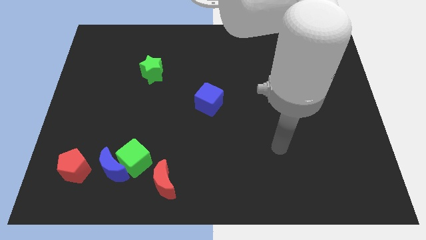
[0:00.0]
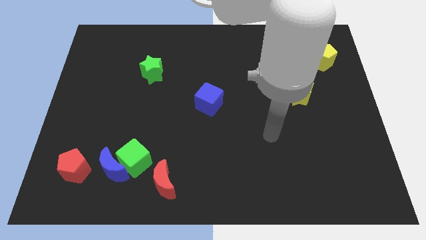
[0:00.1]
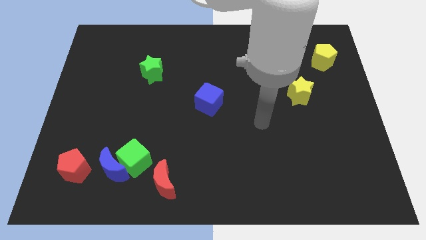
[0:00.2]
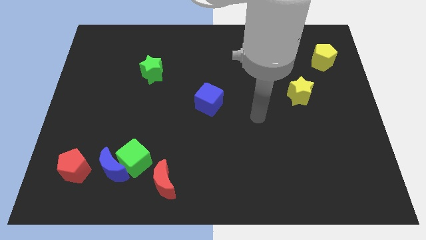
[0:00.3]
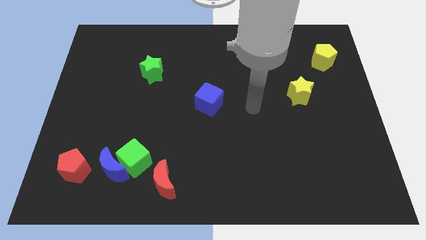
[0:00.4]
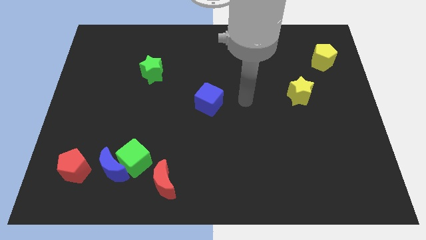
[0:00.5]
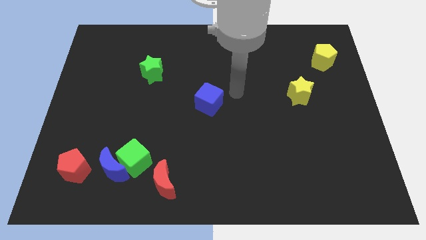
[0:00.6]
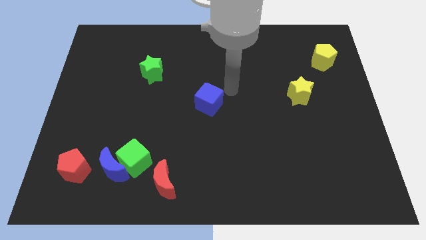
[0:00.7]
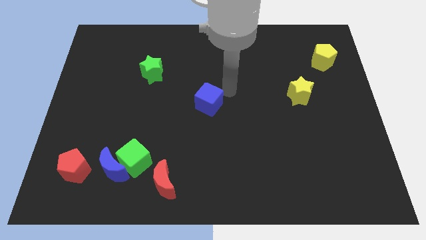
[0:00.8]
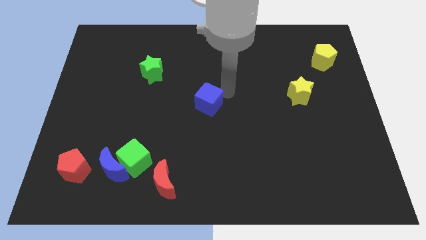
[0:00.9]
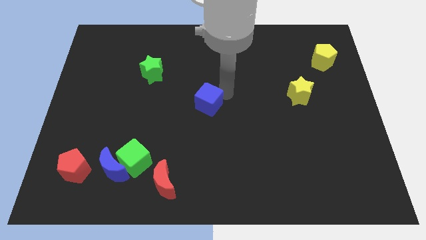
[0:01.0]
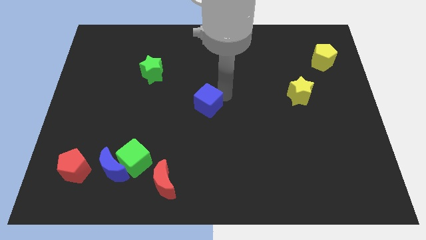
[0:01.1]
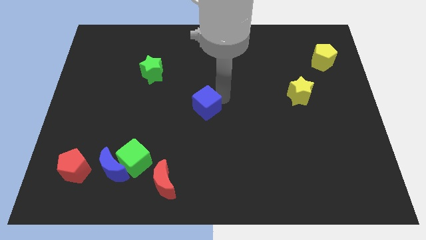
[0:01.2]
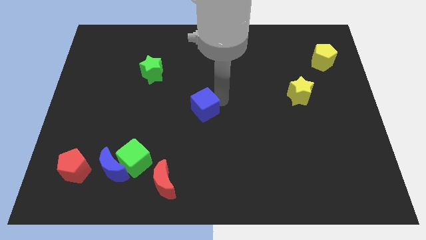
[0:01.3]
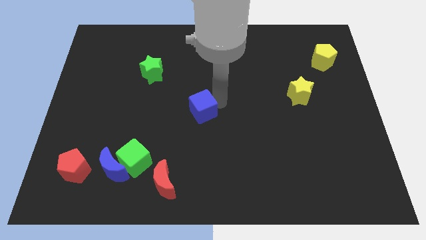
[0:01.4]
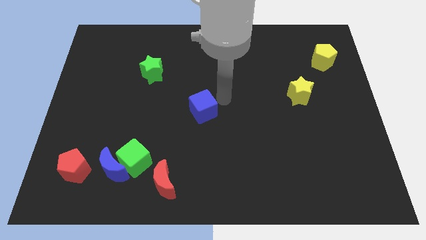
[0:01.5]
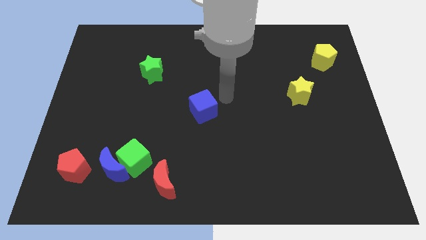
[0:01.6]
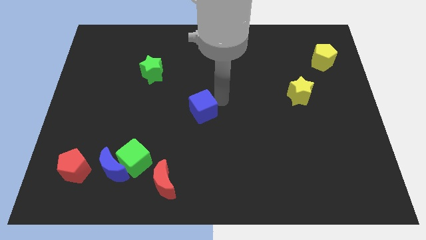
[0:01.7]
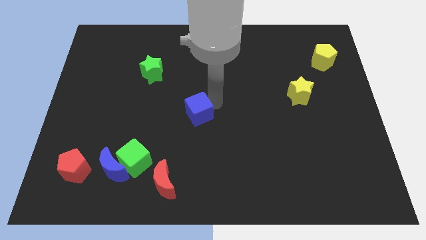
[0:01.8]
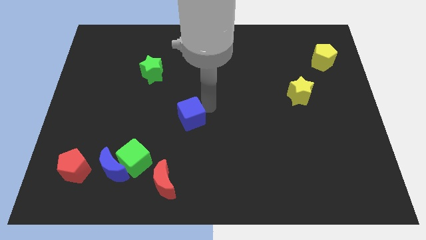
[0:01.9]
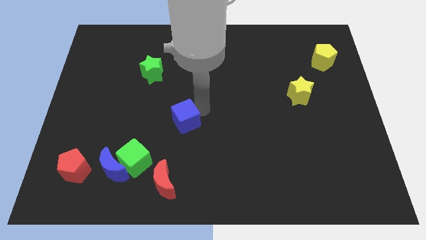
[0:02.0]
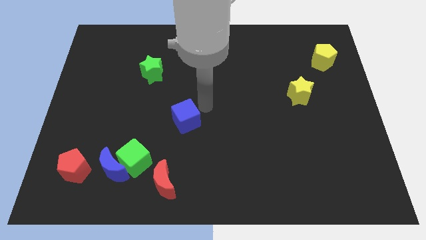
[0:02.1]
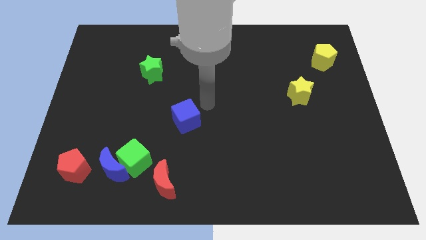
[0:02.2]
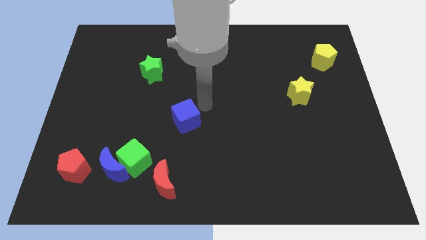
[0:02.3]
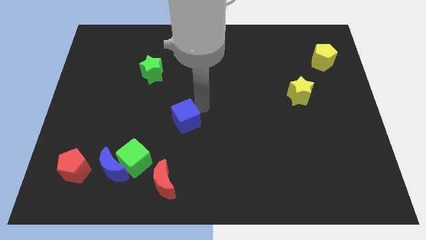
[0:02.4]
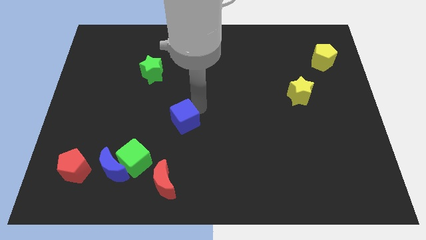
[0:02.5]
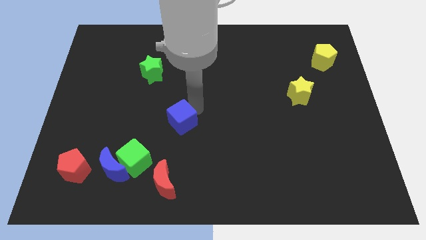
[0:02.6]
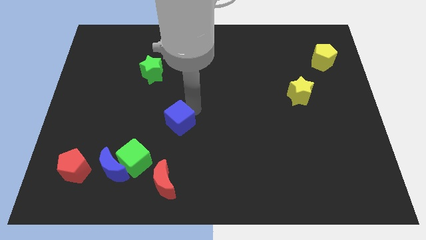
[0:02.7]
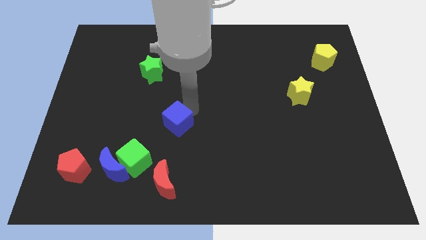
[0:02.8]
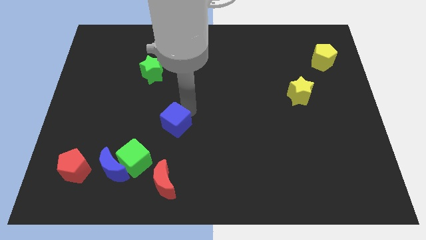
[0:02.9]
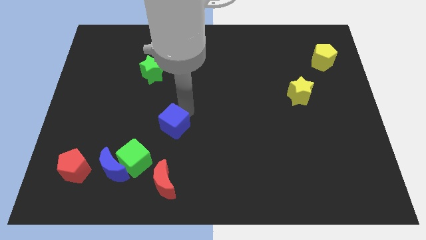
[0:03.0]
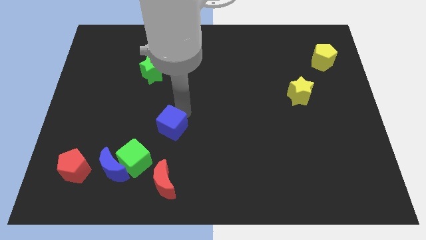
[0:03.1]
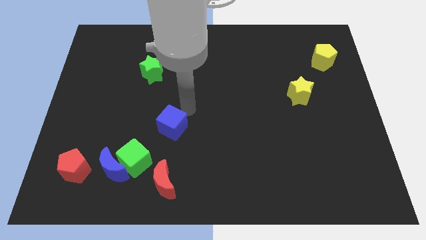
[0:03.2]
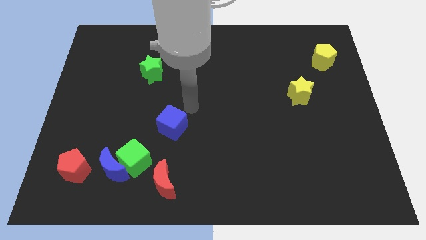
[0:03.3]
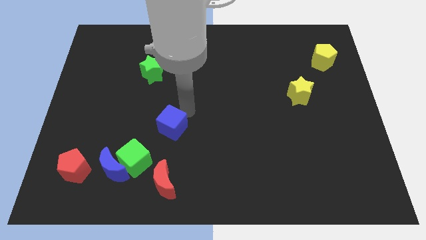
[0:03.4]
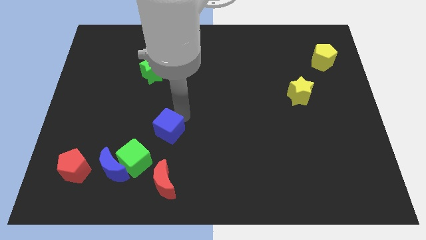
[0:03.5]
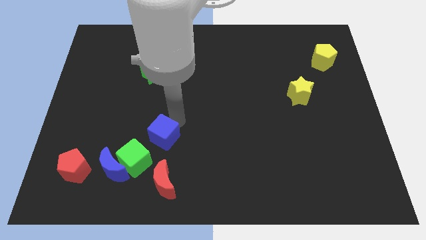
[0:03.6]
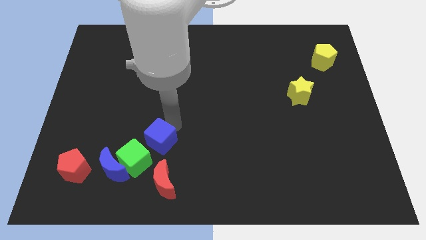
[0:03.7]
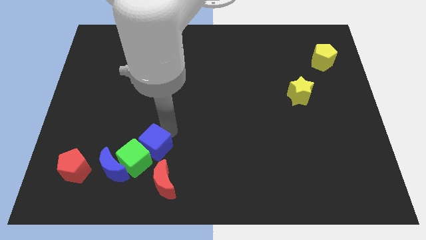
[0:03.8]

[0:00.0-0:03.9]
slide the blue cube next to the green cube

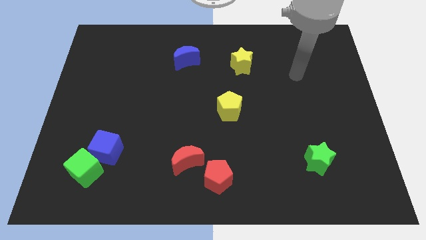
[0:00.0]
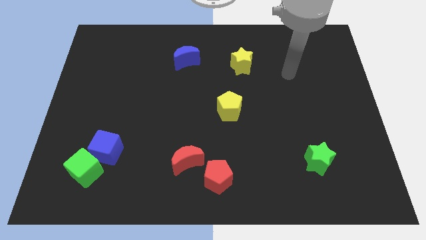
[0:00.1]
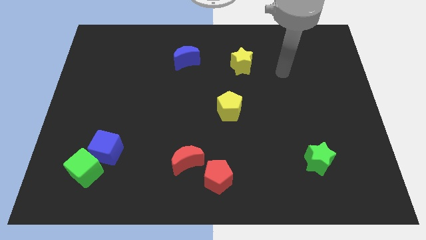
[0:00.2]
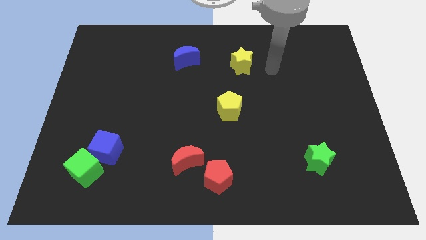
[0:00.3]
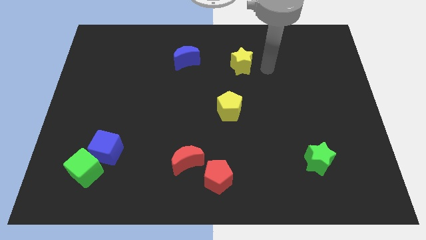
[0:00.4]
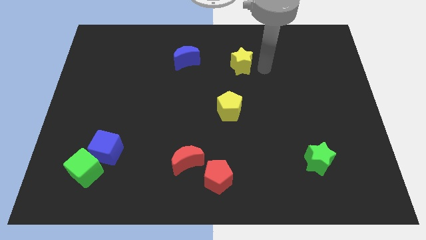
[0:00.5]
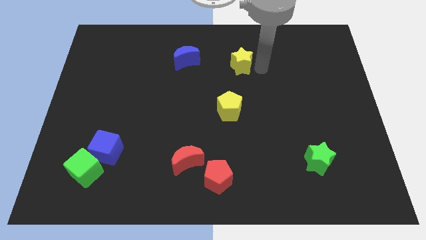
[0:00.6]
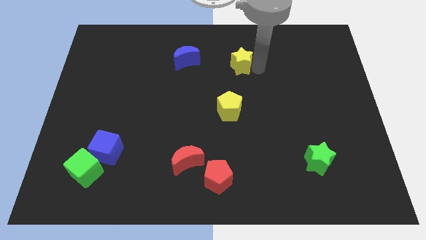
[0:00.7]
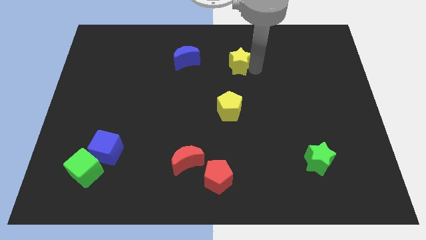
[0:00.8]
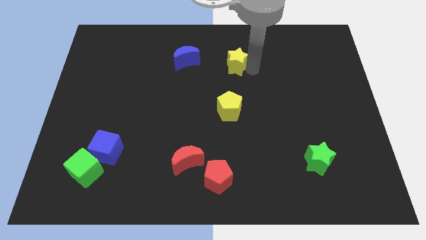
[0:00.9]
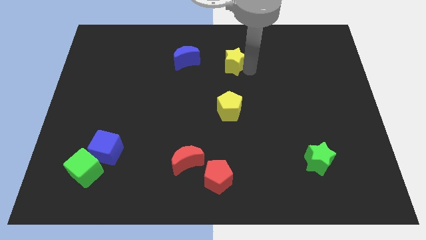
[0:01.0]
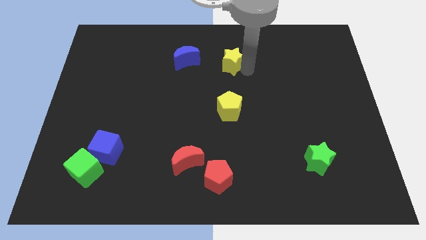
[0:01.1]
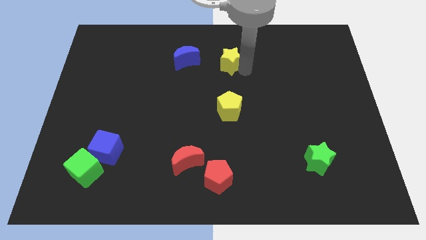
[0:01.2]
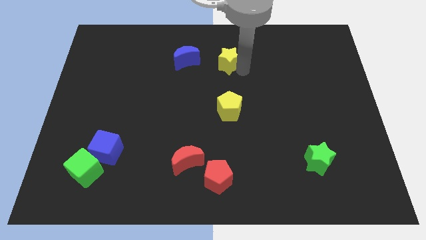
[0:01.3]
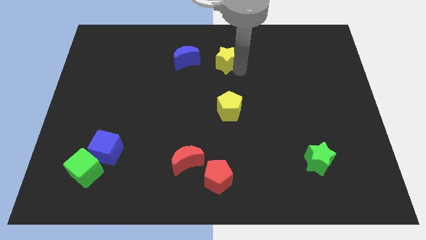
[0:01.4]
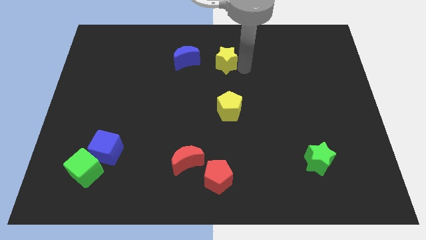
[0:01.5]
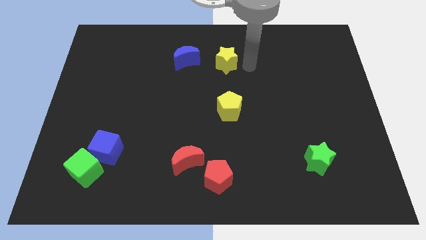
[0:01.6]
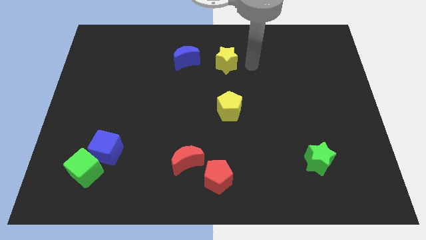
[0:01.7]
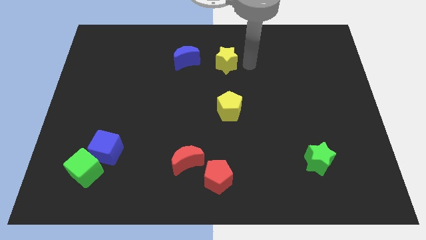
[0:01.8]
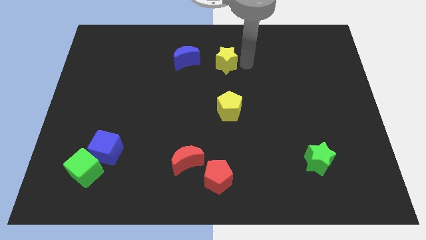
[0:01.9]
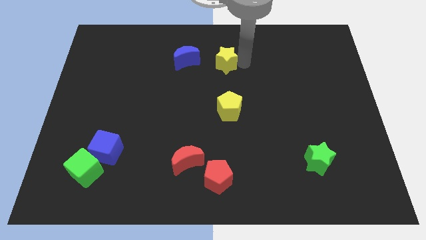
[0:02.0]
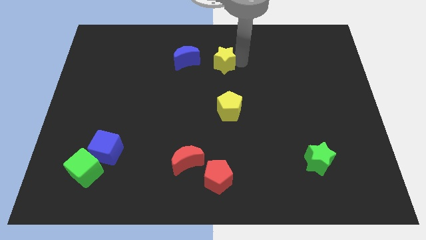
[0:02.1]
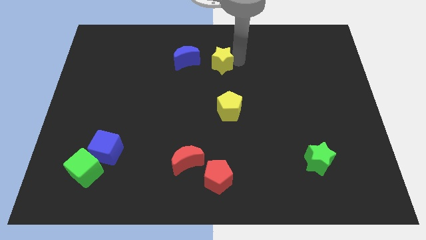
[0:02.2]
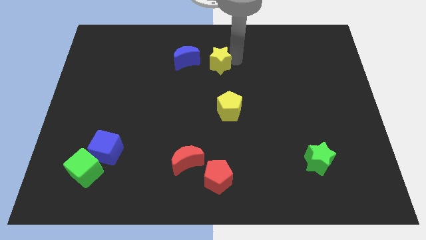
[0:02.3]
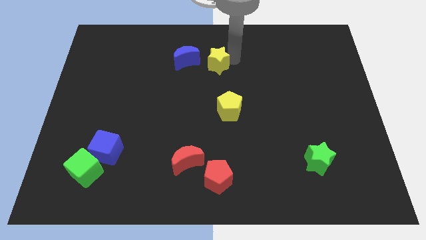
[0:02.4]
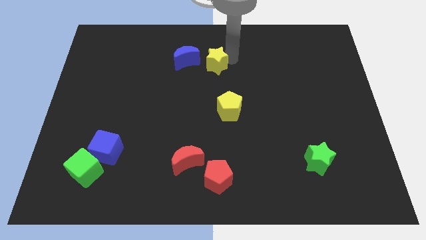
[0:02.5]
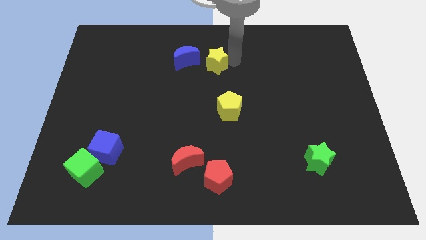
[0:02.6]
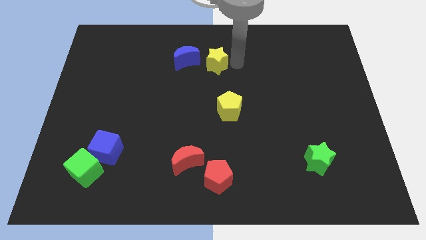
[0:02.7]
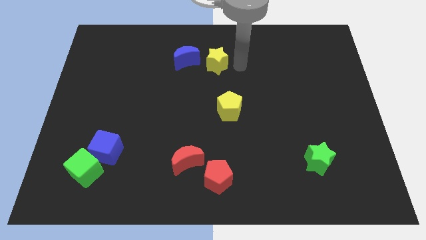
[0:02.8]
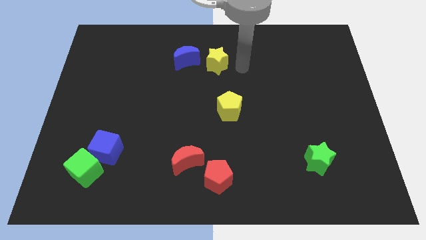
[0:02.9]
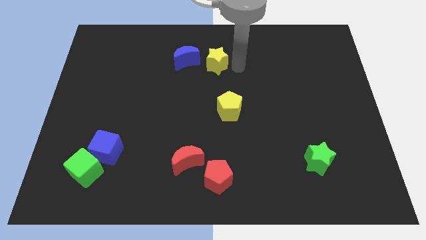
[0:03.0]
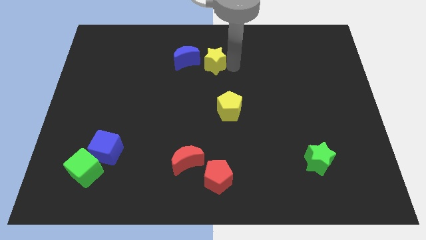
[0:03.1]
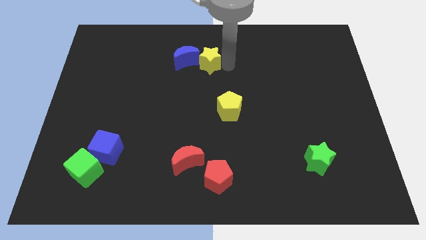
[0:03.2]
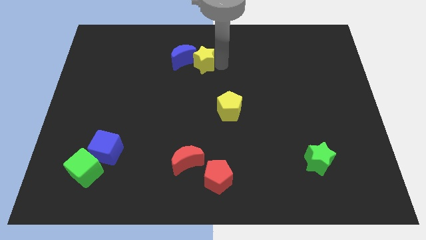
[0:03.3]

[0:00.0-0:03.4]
slide the yellow star towards the blue moon

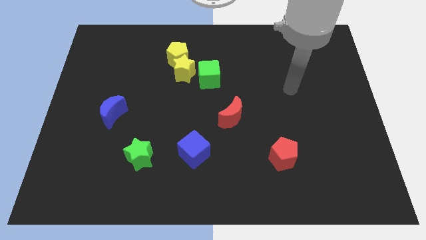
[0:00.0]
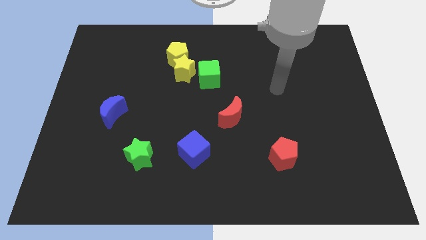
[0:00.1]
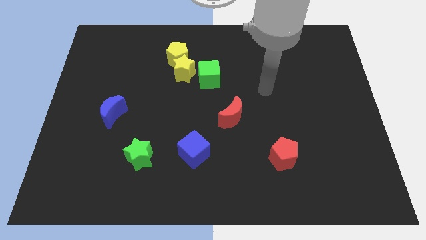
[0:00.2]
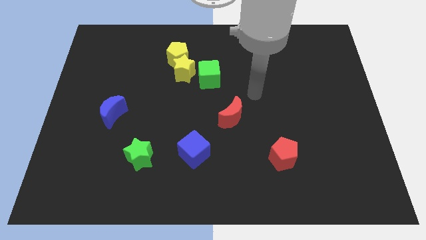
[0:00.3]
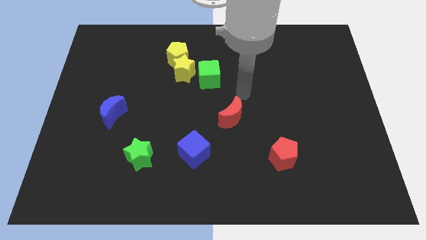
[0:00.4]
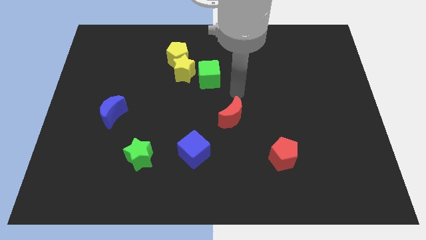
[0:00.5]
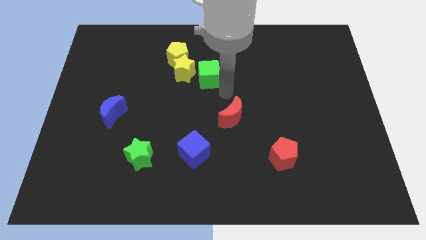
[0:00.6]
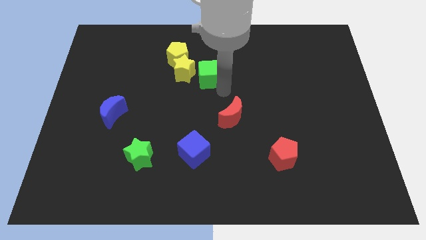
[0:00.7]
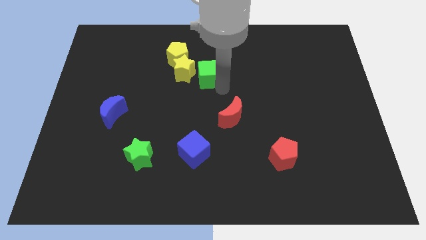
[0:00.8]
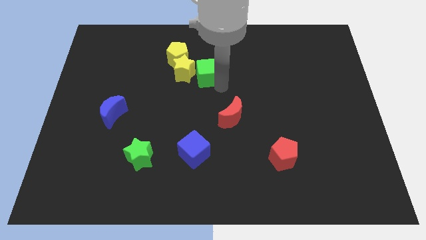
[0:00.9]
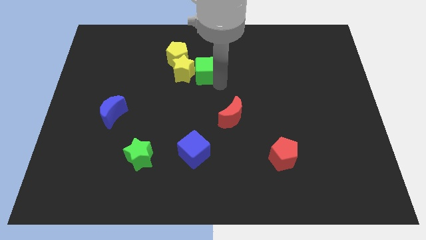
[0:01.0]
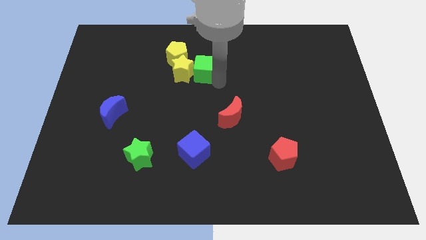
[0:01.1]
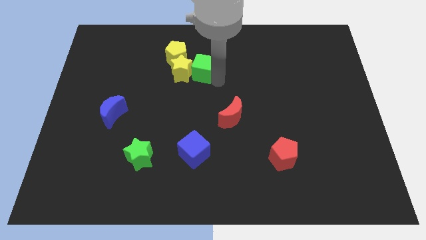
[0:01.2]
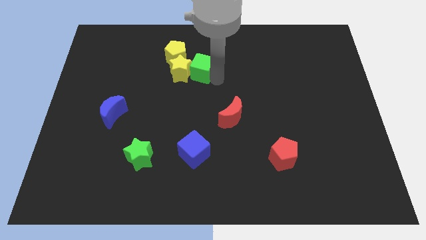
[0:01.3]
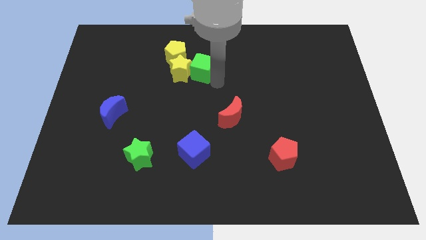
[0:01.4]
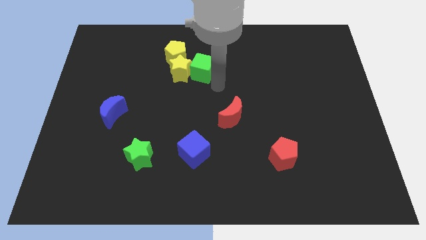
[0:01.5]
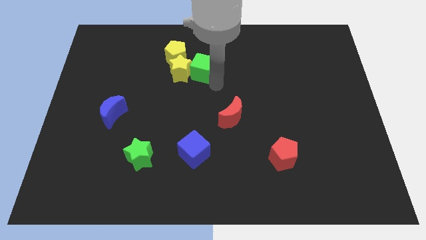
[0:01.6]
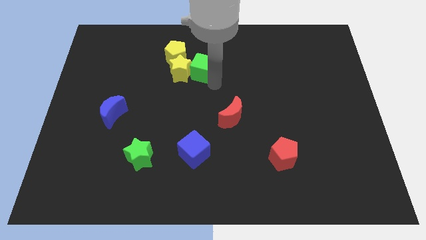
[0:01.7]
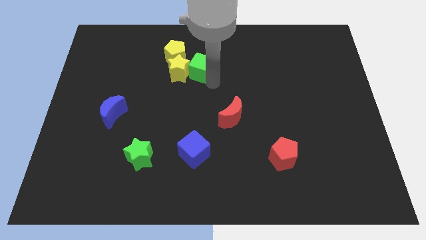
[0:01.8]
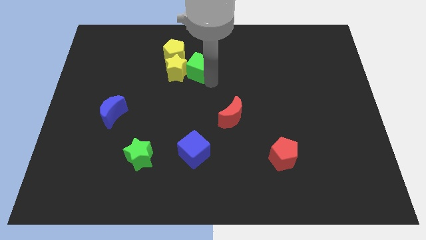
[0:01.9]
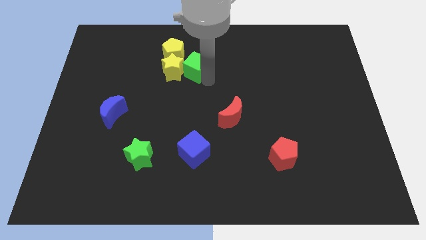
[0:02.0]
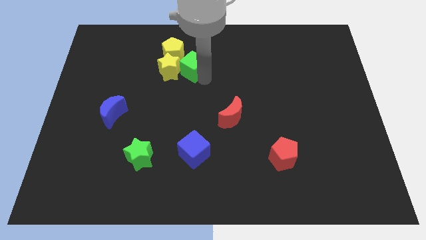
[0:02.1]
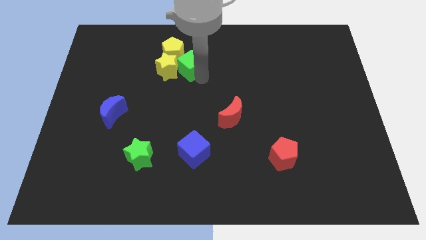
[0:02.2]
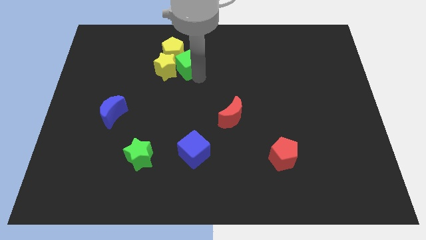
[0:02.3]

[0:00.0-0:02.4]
move the green cube close to the yellow pentagon
